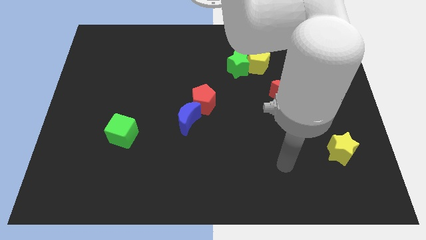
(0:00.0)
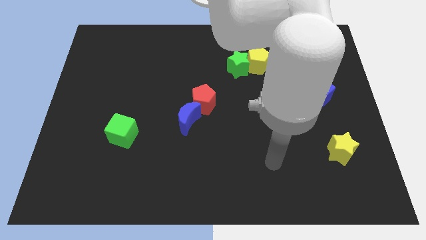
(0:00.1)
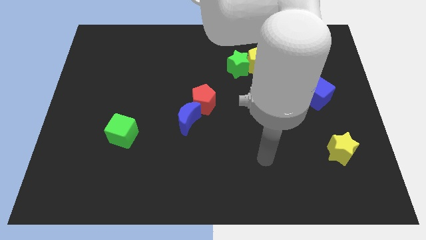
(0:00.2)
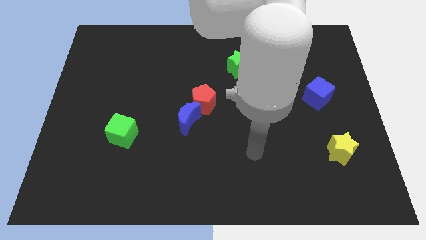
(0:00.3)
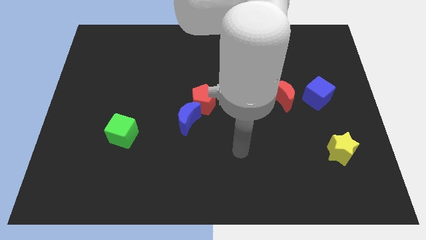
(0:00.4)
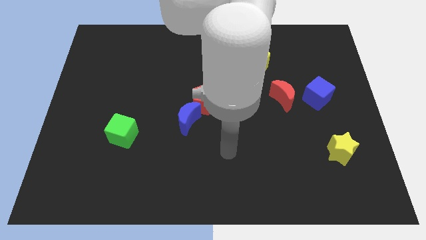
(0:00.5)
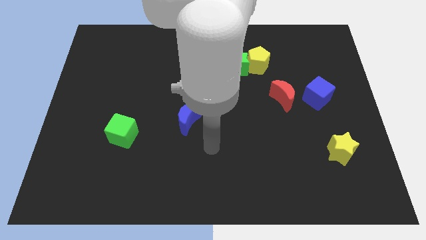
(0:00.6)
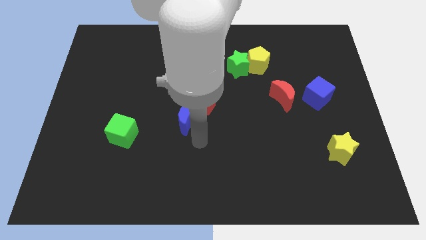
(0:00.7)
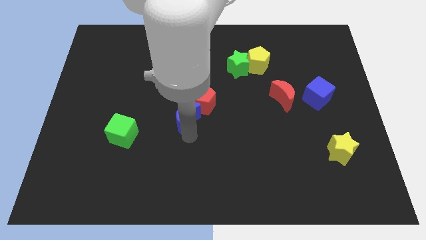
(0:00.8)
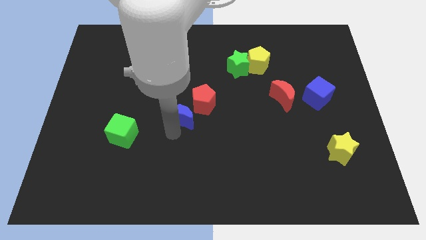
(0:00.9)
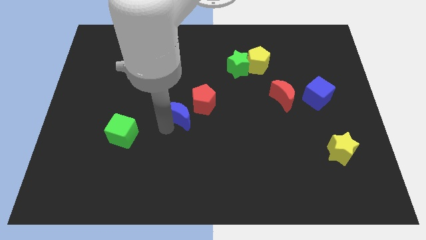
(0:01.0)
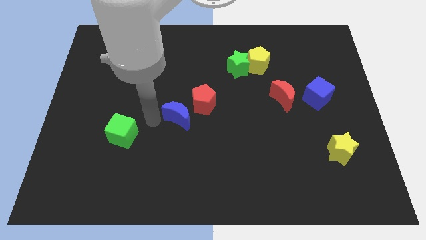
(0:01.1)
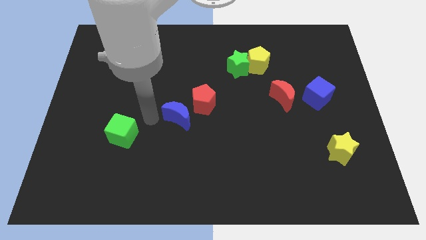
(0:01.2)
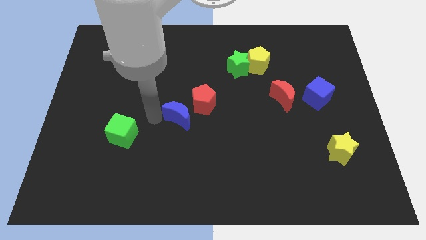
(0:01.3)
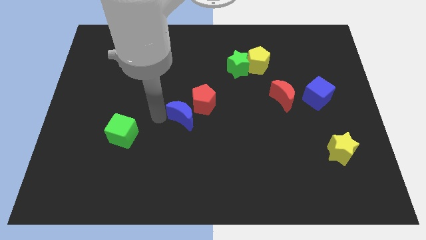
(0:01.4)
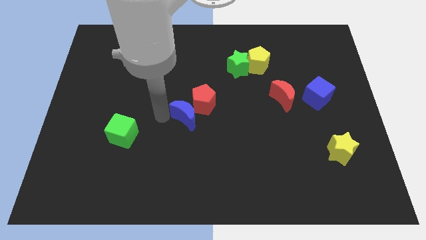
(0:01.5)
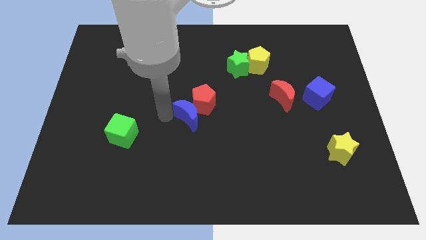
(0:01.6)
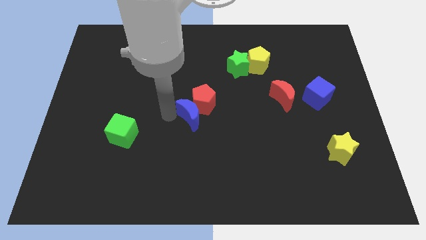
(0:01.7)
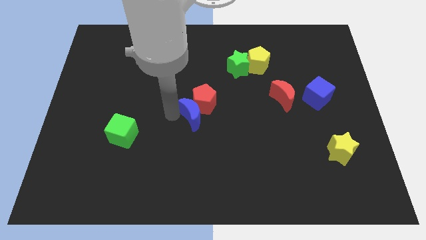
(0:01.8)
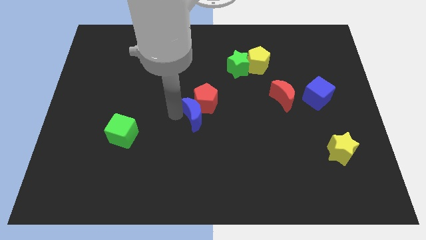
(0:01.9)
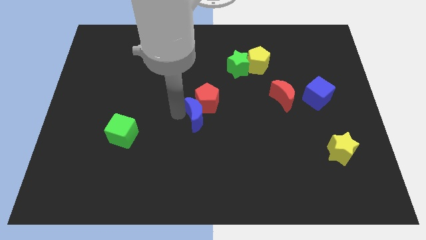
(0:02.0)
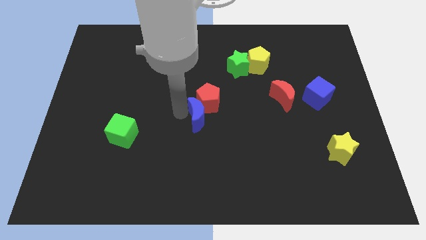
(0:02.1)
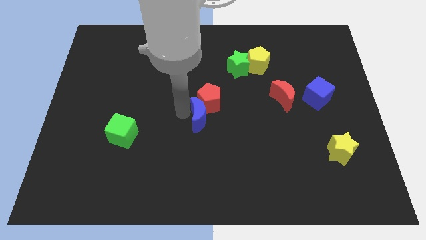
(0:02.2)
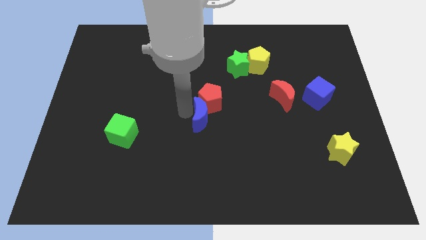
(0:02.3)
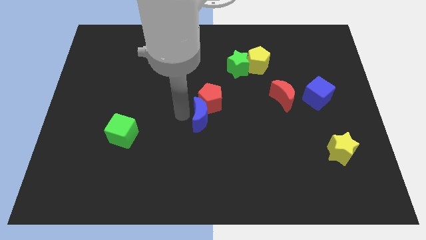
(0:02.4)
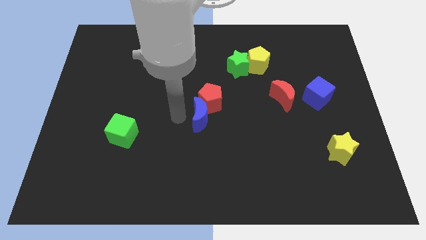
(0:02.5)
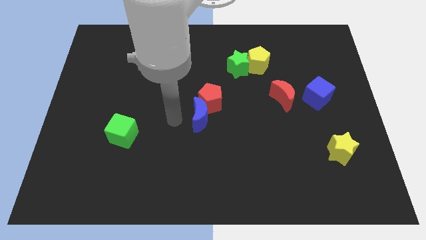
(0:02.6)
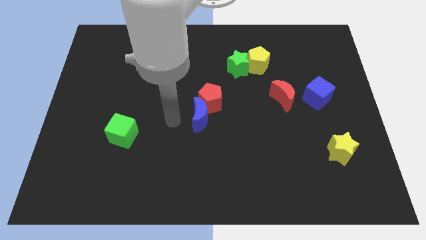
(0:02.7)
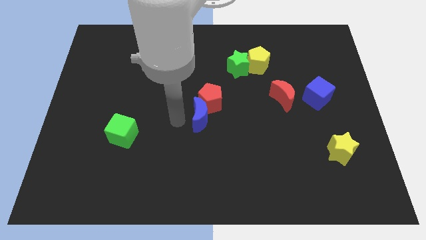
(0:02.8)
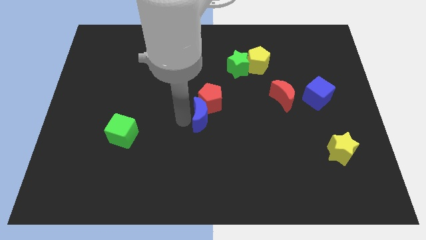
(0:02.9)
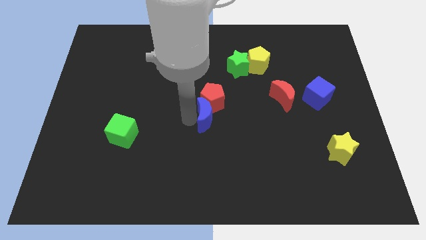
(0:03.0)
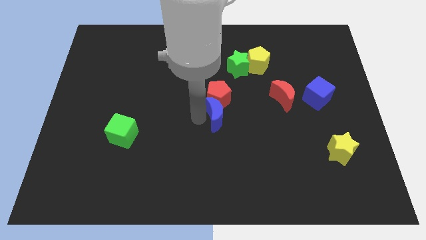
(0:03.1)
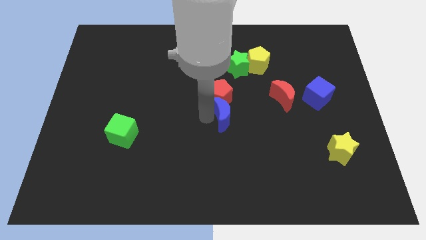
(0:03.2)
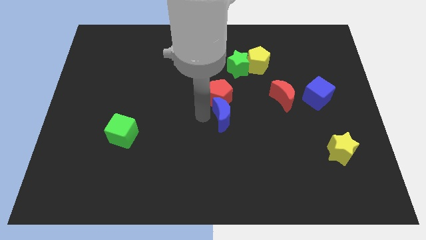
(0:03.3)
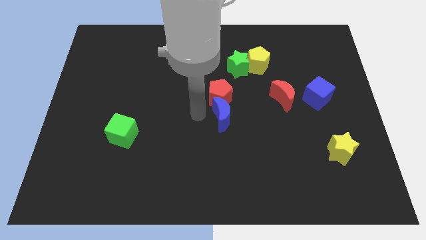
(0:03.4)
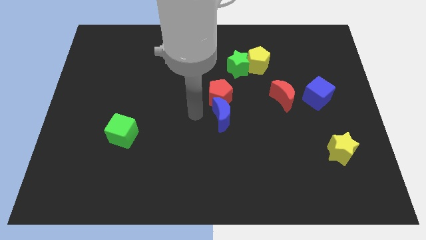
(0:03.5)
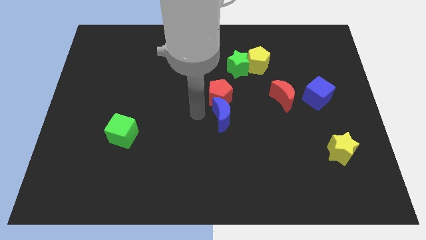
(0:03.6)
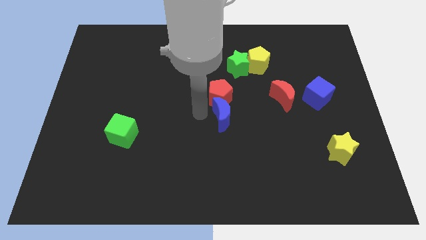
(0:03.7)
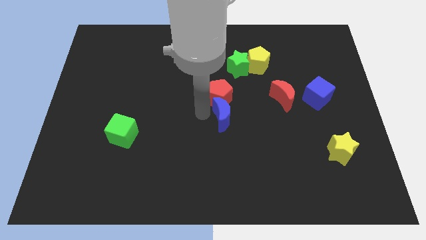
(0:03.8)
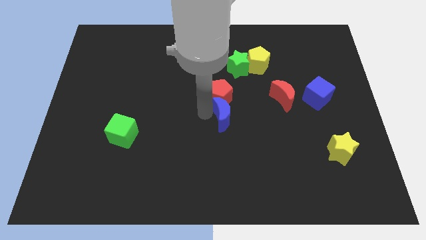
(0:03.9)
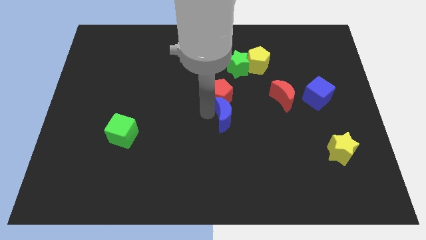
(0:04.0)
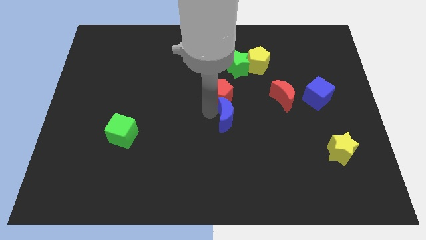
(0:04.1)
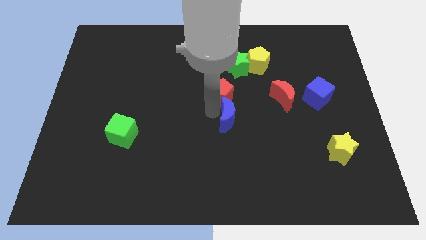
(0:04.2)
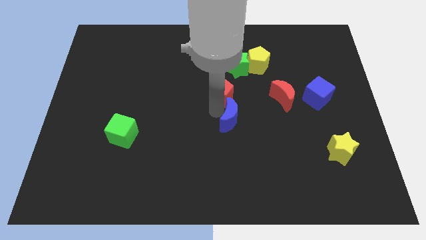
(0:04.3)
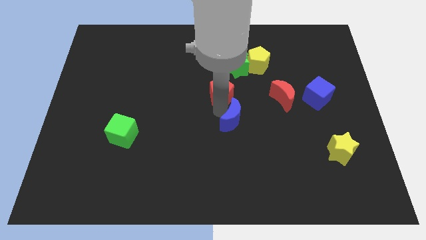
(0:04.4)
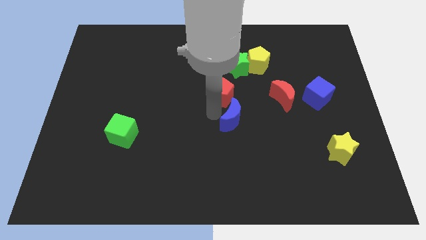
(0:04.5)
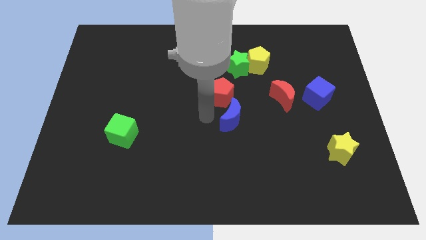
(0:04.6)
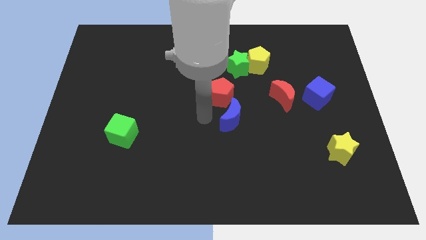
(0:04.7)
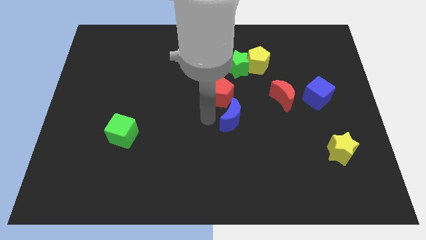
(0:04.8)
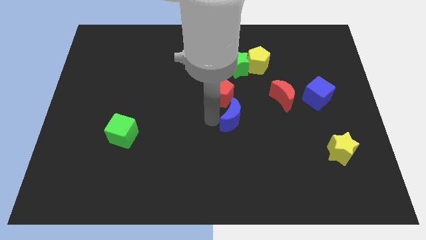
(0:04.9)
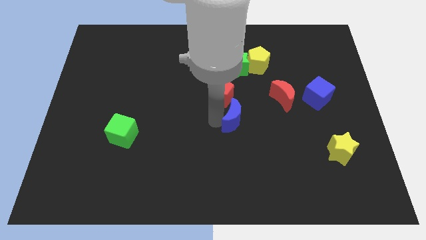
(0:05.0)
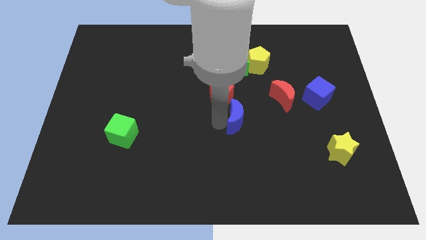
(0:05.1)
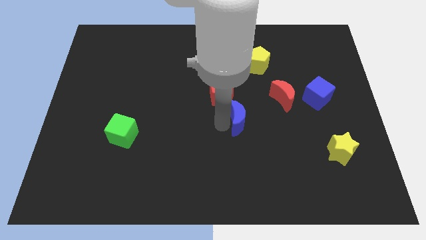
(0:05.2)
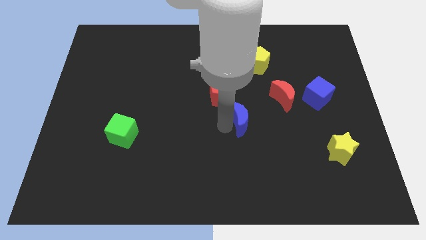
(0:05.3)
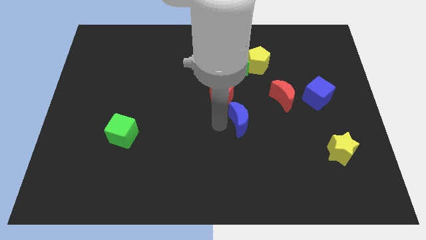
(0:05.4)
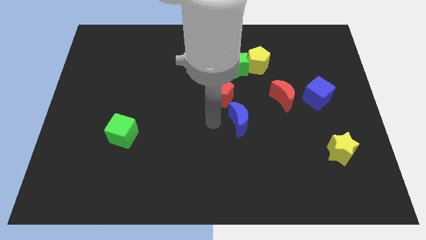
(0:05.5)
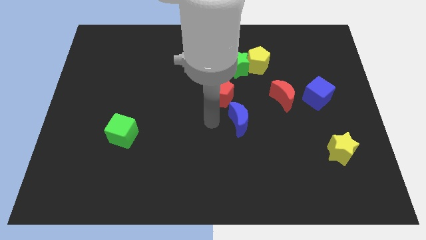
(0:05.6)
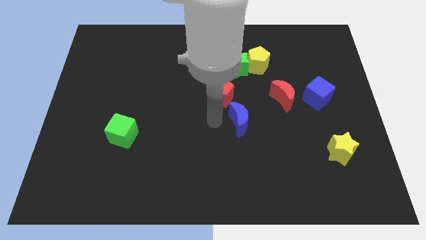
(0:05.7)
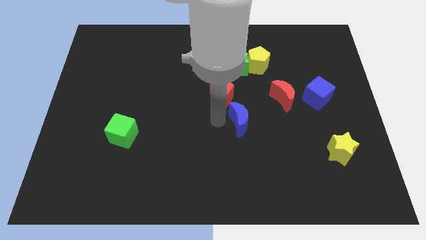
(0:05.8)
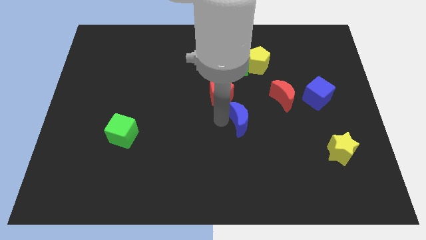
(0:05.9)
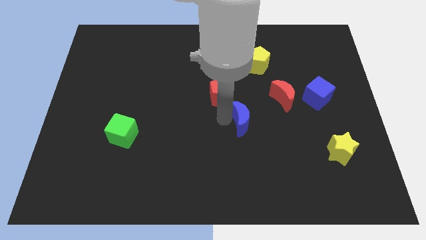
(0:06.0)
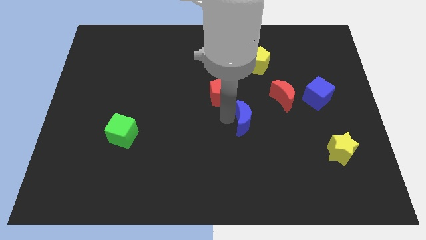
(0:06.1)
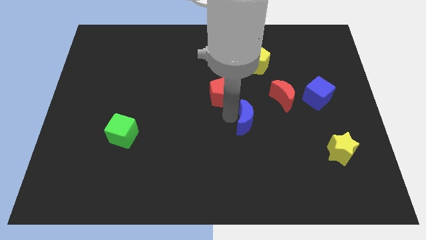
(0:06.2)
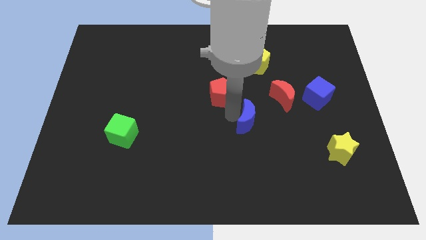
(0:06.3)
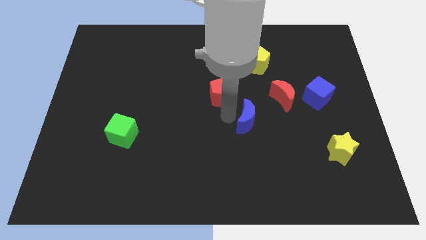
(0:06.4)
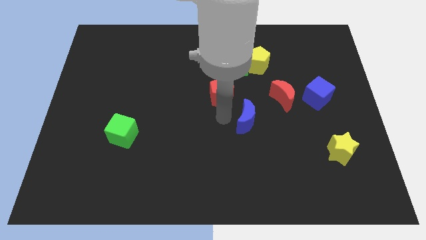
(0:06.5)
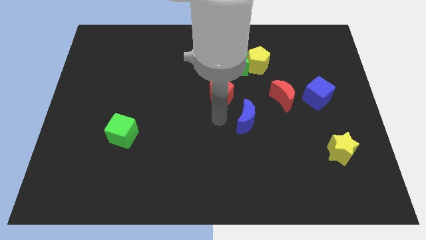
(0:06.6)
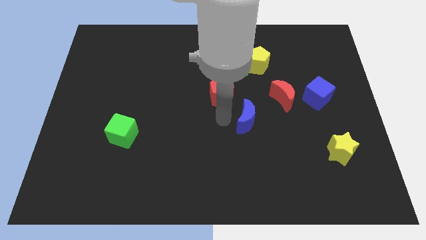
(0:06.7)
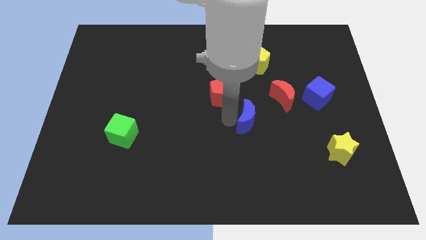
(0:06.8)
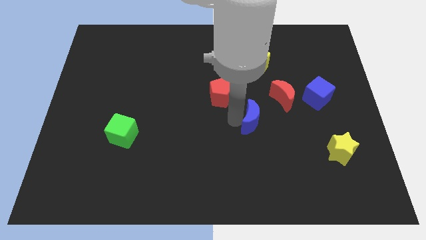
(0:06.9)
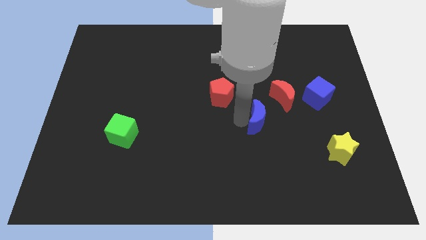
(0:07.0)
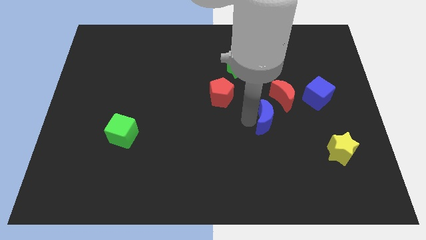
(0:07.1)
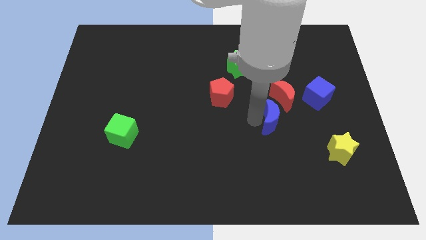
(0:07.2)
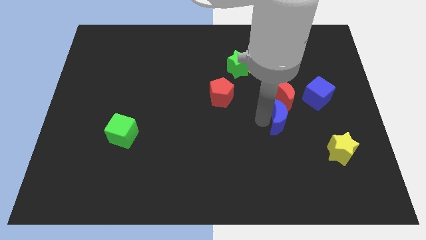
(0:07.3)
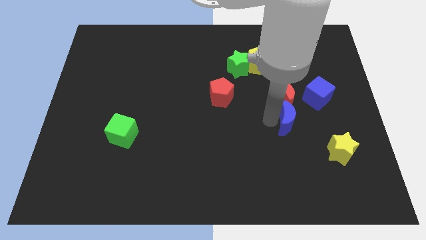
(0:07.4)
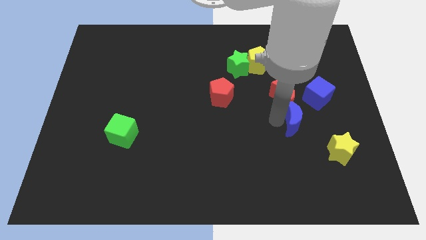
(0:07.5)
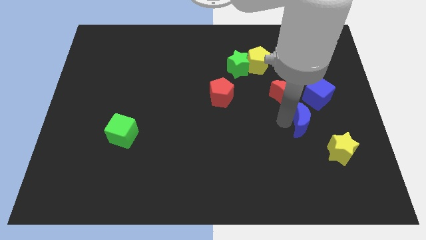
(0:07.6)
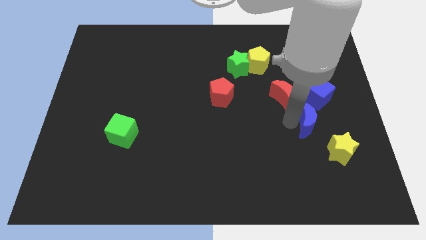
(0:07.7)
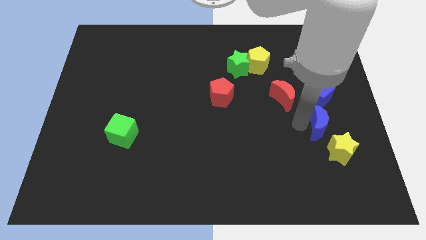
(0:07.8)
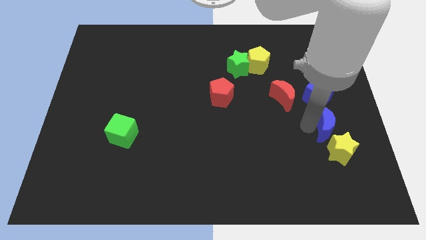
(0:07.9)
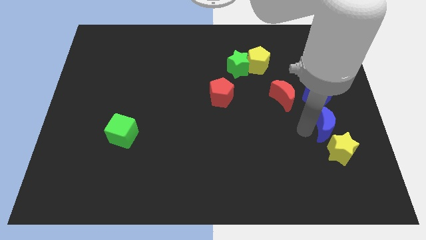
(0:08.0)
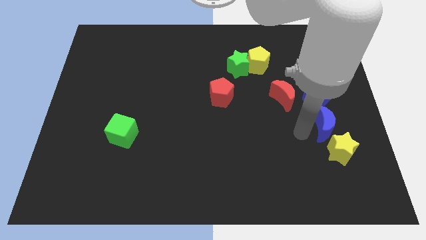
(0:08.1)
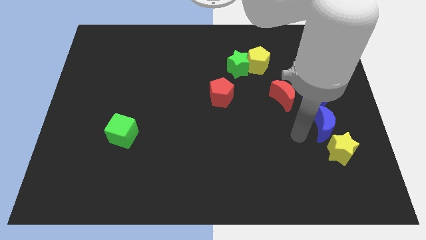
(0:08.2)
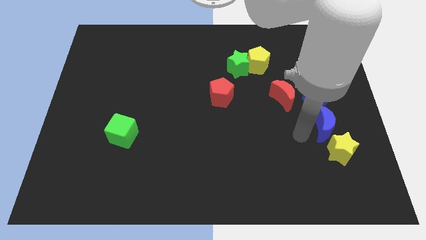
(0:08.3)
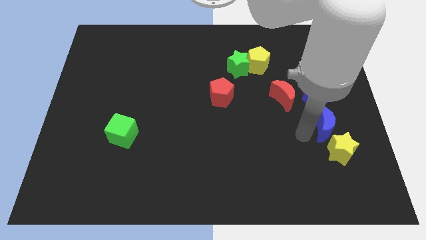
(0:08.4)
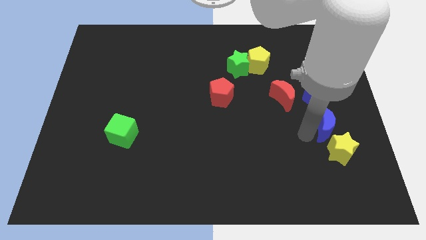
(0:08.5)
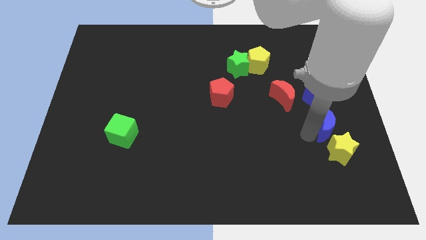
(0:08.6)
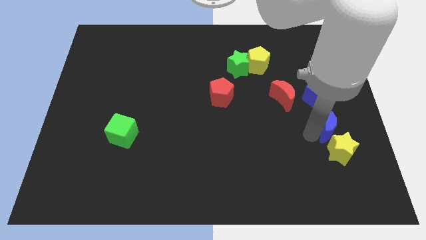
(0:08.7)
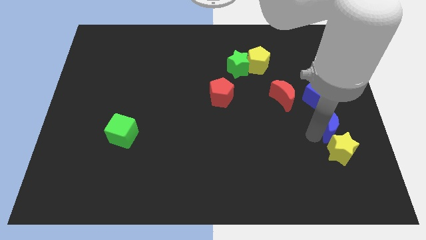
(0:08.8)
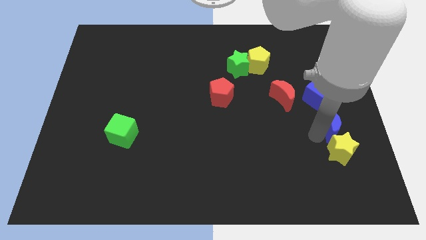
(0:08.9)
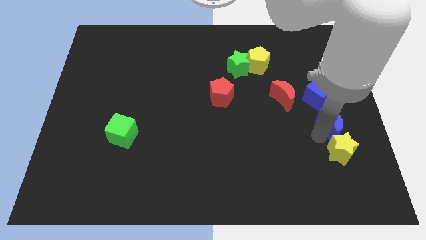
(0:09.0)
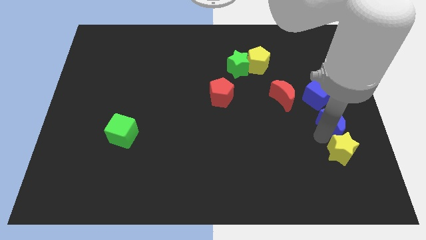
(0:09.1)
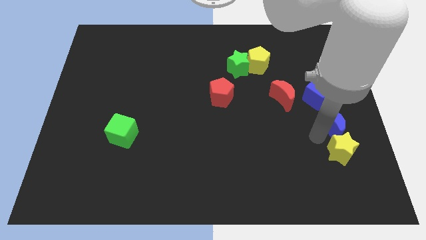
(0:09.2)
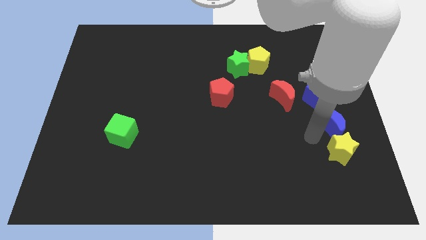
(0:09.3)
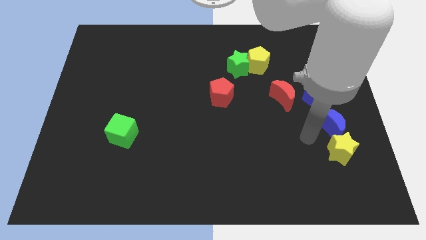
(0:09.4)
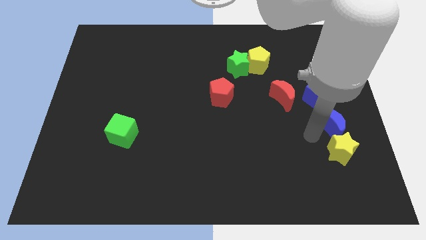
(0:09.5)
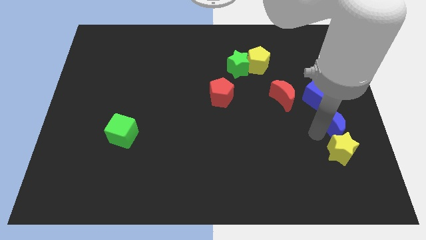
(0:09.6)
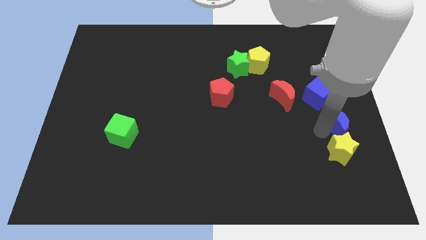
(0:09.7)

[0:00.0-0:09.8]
put the blue moon to the right side
